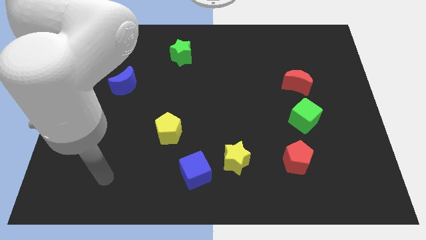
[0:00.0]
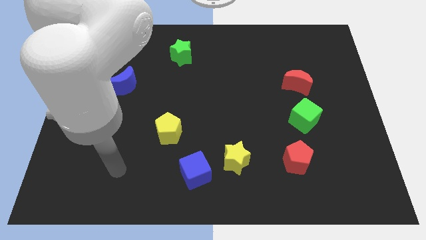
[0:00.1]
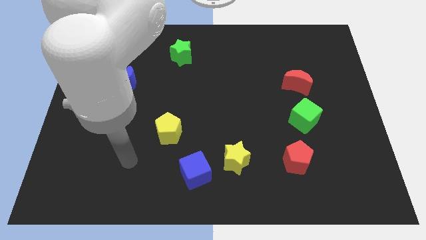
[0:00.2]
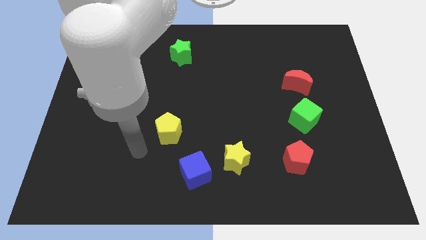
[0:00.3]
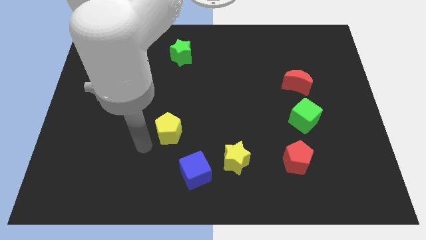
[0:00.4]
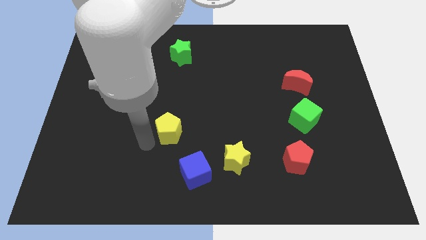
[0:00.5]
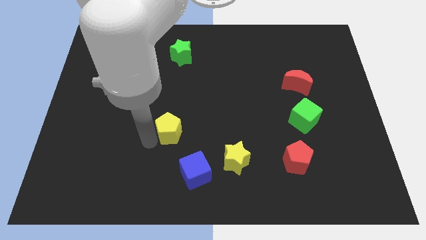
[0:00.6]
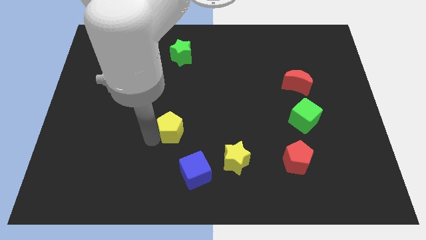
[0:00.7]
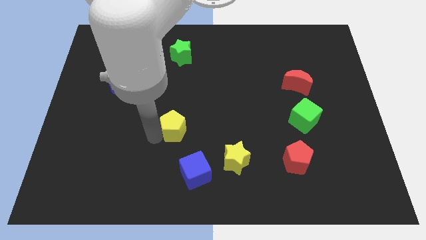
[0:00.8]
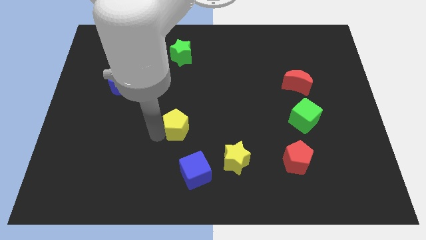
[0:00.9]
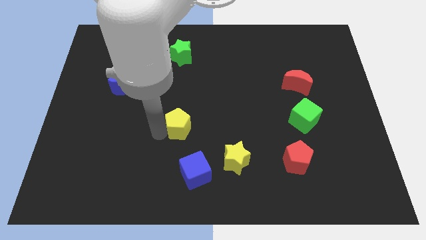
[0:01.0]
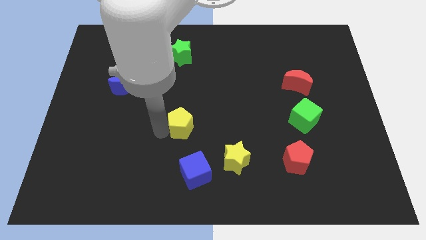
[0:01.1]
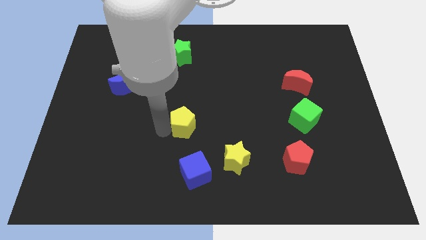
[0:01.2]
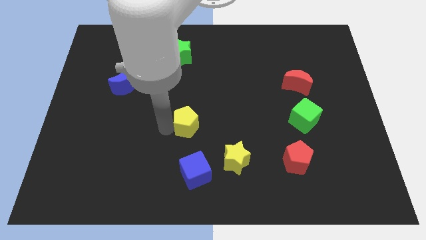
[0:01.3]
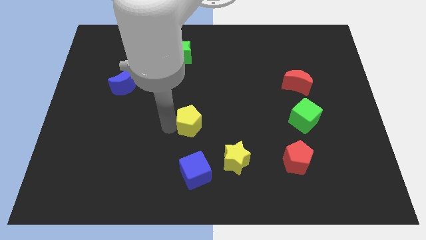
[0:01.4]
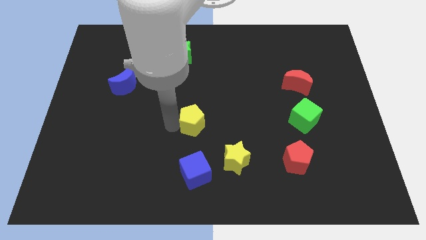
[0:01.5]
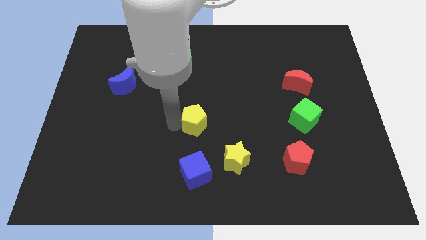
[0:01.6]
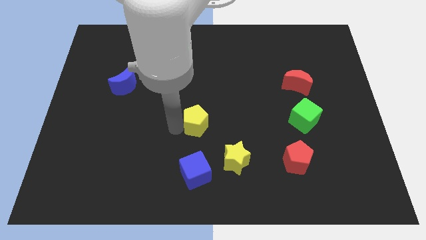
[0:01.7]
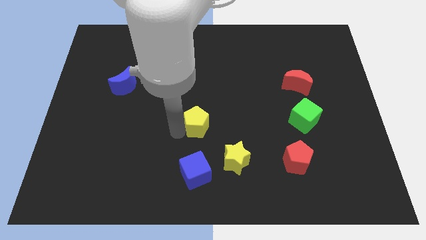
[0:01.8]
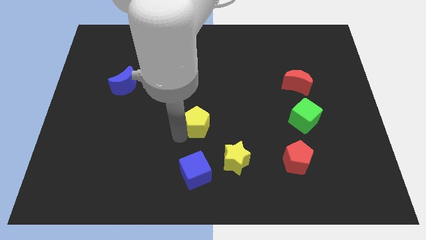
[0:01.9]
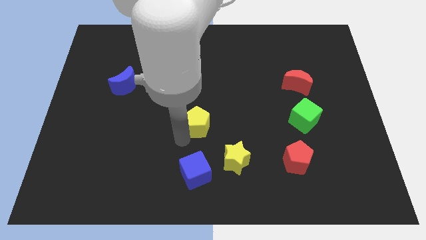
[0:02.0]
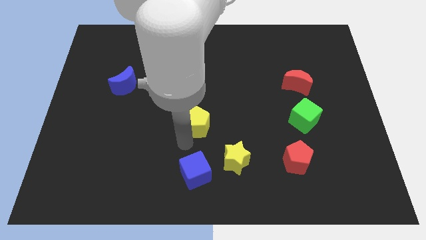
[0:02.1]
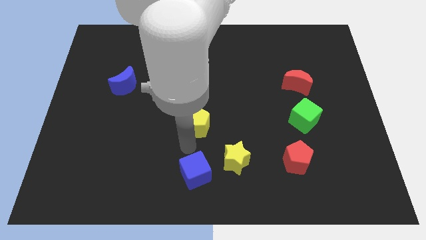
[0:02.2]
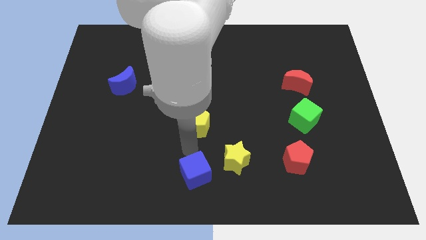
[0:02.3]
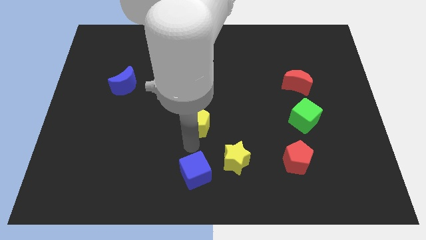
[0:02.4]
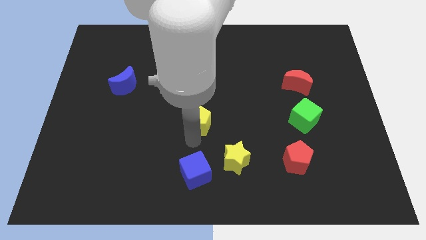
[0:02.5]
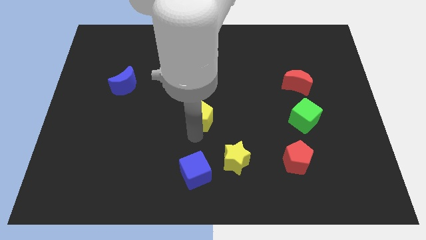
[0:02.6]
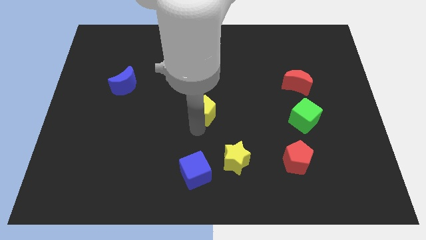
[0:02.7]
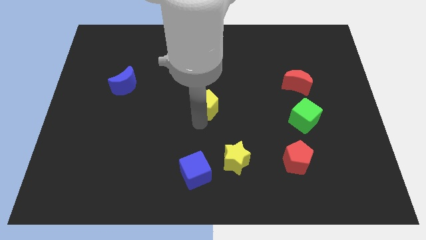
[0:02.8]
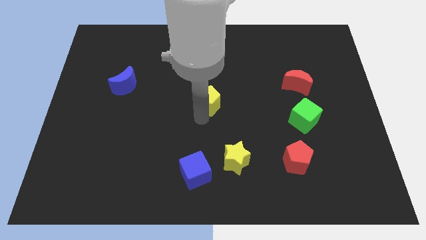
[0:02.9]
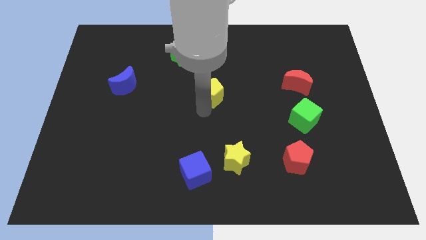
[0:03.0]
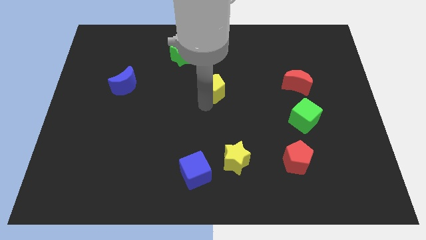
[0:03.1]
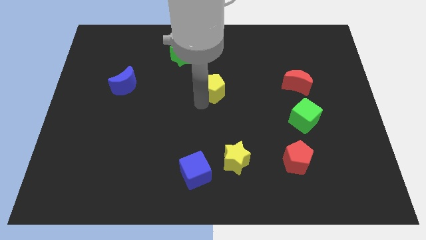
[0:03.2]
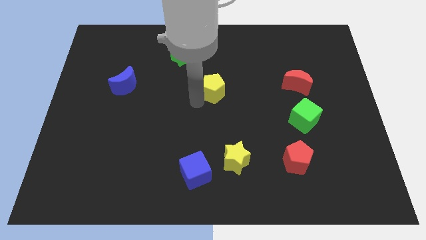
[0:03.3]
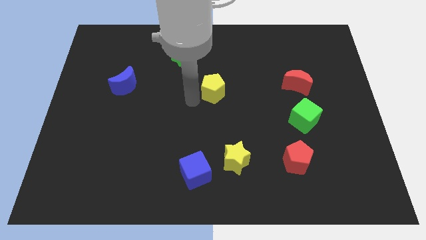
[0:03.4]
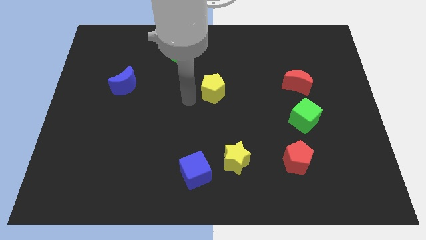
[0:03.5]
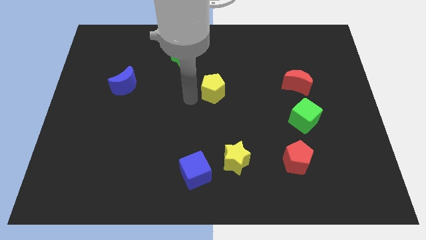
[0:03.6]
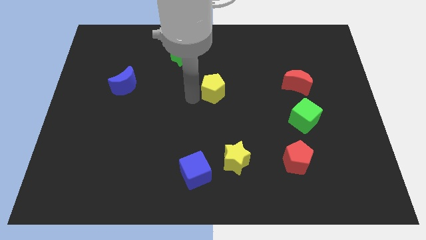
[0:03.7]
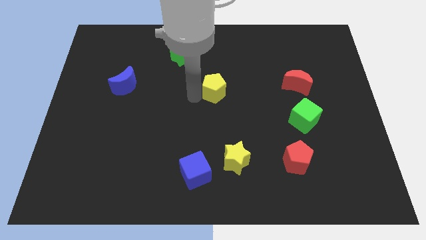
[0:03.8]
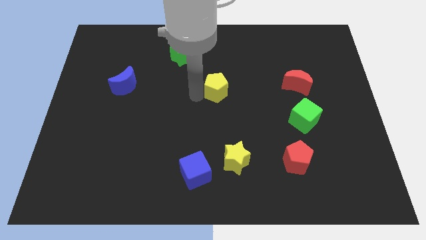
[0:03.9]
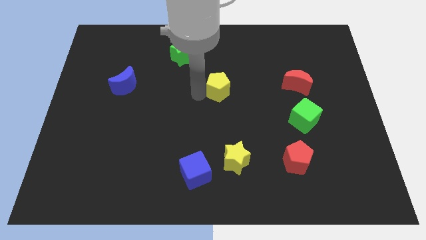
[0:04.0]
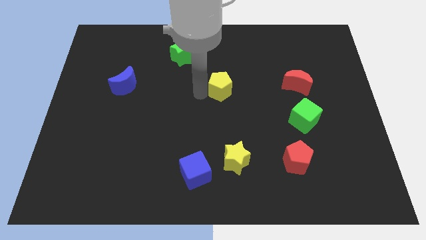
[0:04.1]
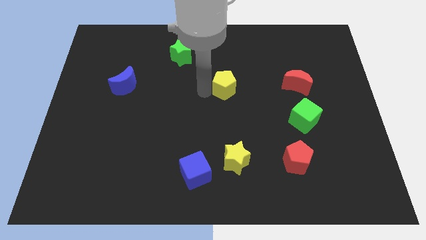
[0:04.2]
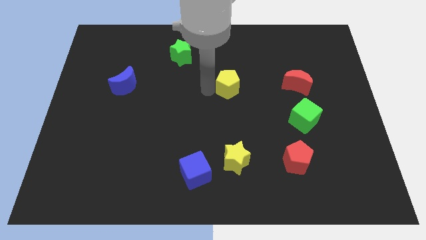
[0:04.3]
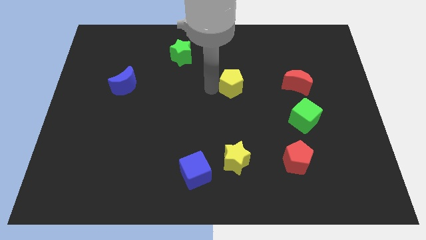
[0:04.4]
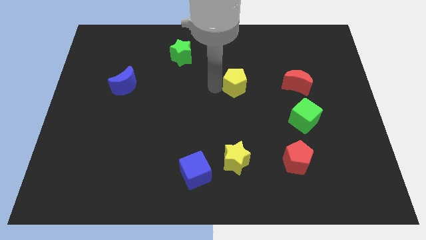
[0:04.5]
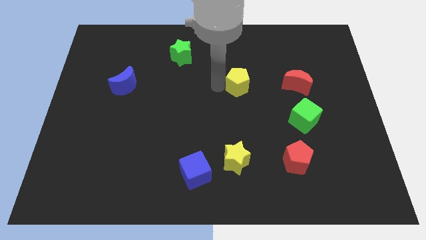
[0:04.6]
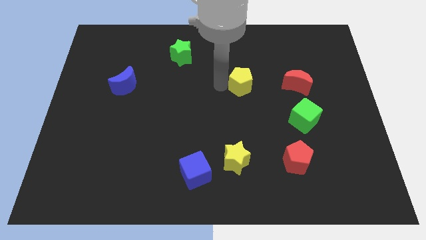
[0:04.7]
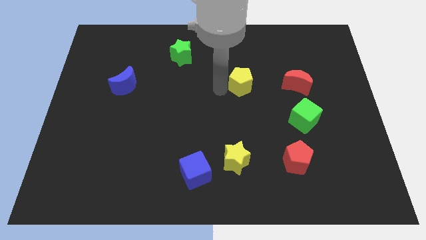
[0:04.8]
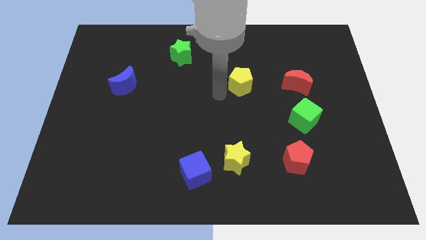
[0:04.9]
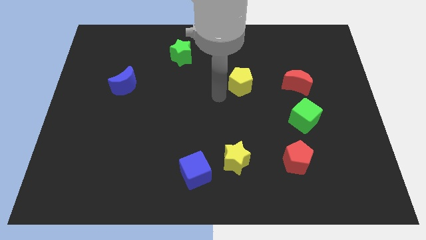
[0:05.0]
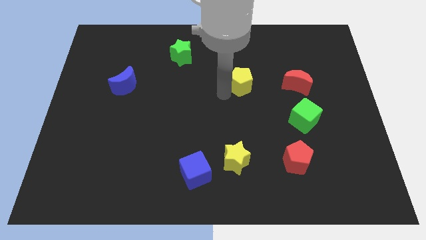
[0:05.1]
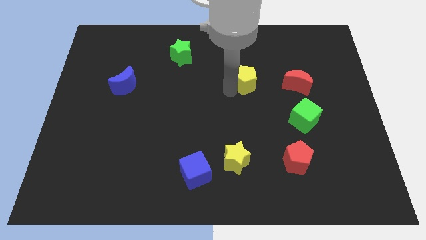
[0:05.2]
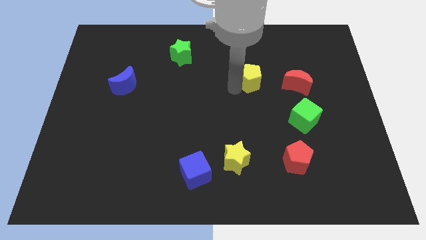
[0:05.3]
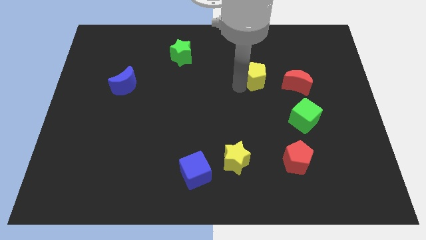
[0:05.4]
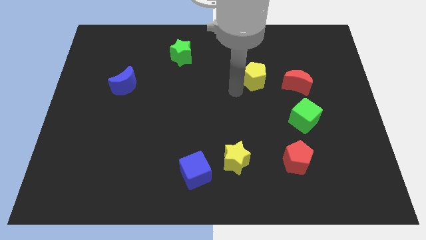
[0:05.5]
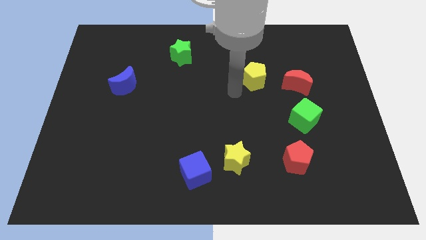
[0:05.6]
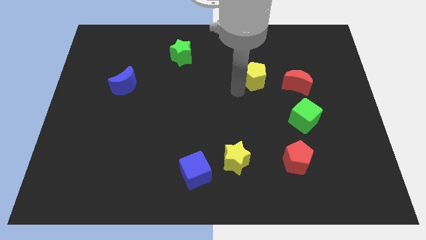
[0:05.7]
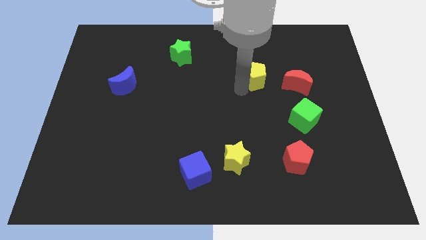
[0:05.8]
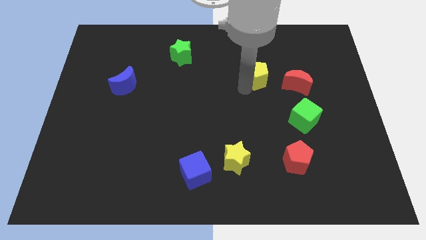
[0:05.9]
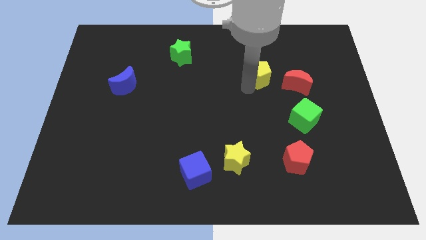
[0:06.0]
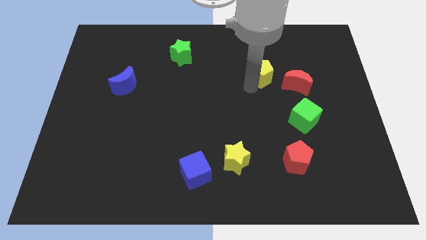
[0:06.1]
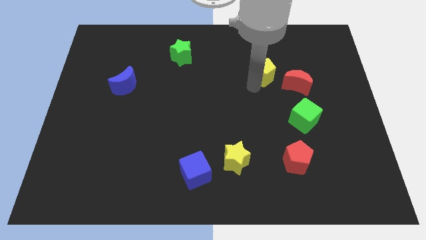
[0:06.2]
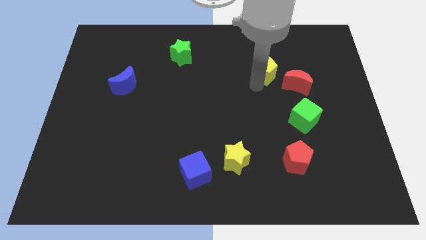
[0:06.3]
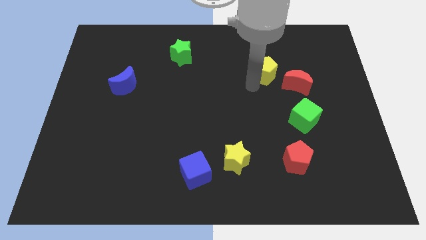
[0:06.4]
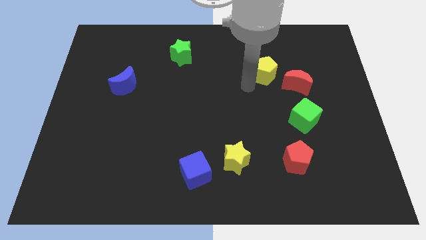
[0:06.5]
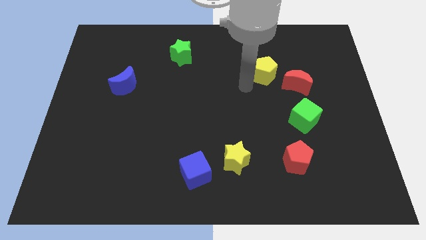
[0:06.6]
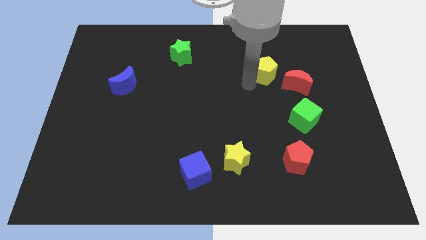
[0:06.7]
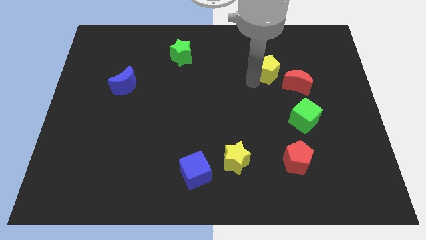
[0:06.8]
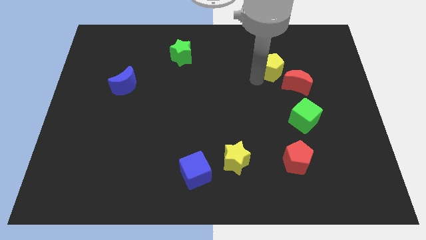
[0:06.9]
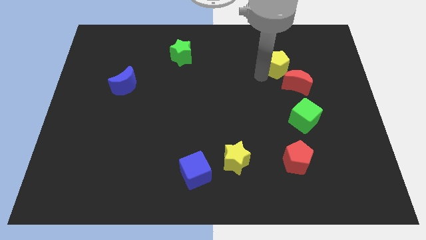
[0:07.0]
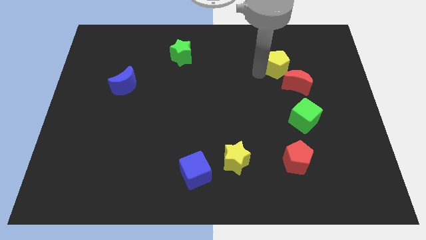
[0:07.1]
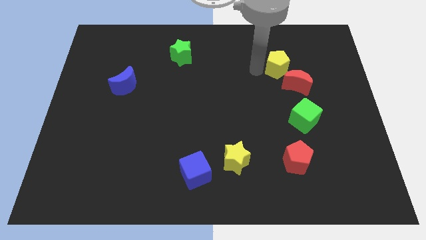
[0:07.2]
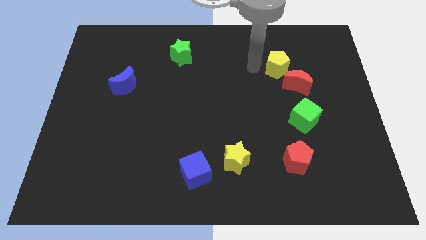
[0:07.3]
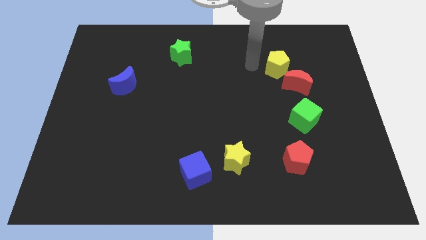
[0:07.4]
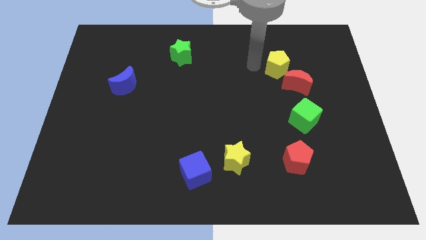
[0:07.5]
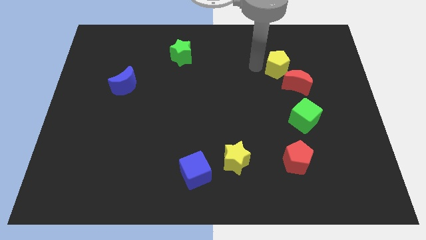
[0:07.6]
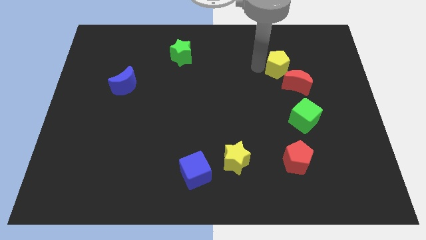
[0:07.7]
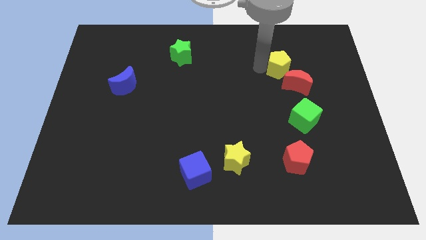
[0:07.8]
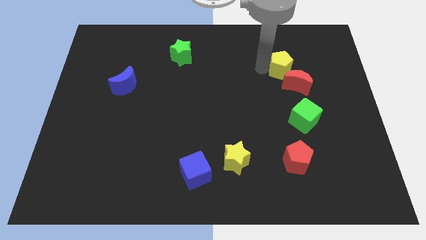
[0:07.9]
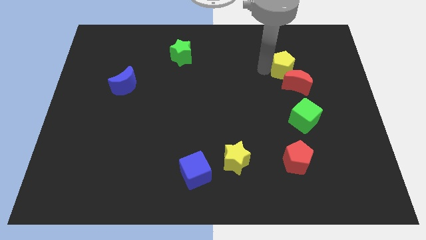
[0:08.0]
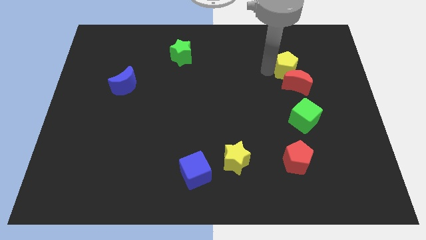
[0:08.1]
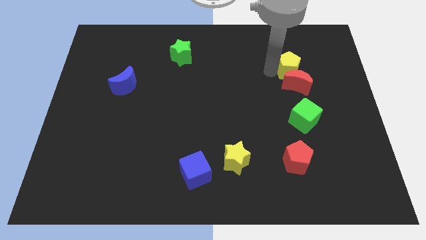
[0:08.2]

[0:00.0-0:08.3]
push the yellow pentagon to the top right side of the red moon
